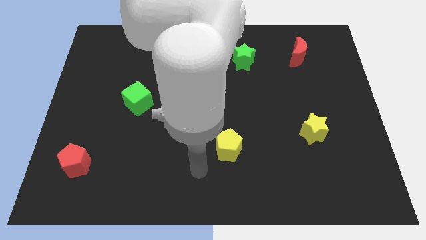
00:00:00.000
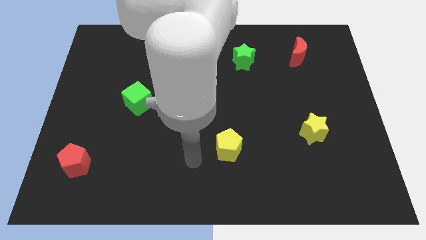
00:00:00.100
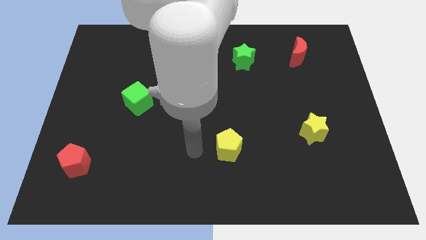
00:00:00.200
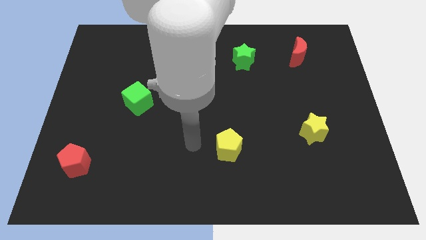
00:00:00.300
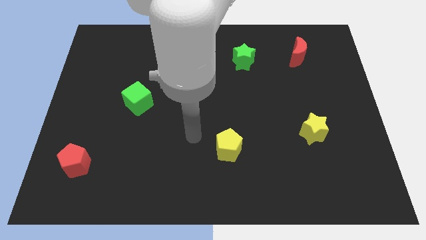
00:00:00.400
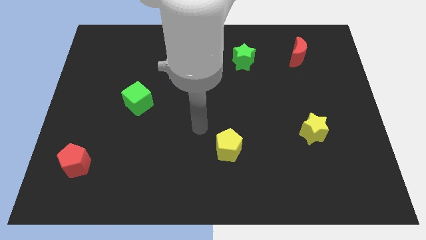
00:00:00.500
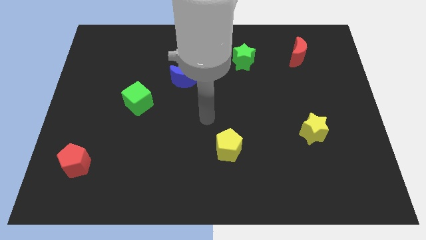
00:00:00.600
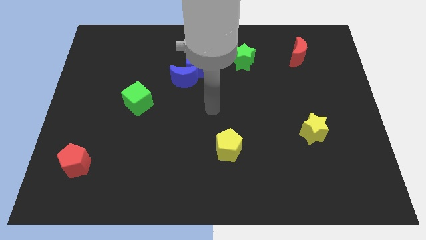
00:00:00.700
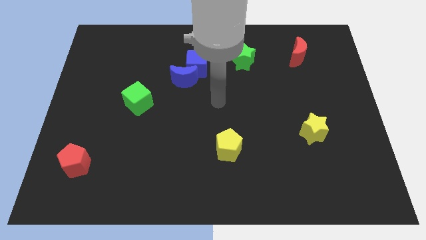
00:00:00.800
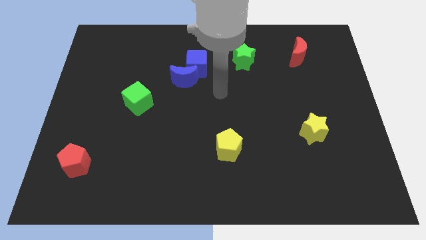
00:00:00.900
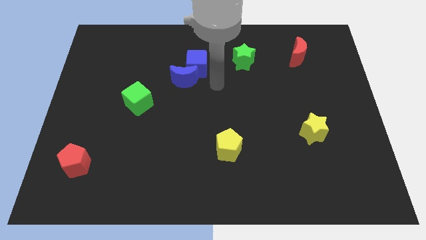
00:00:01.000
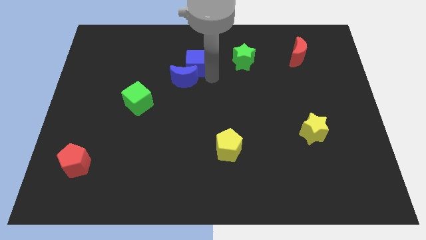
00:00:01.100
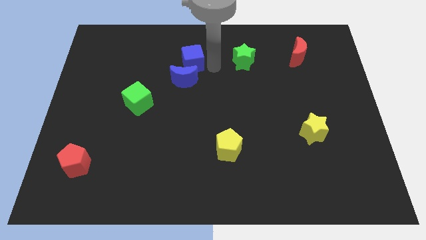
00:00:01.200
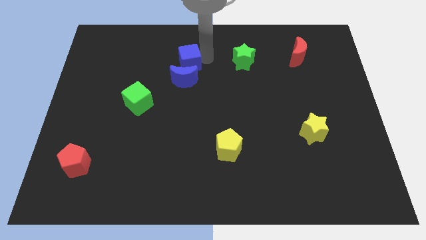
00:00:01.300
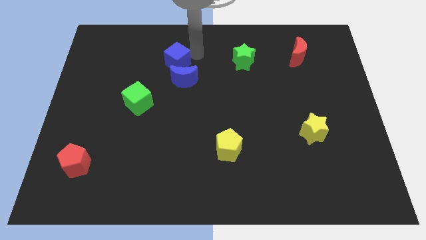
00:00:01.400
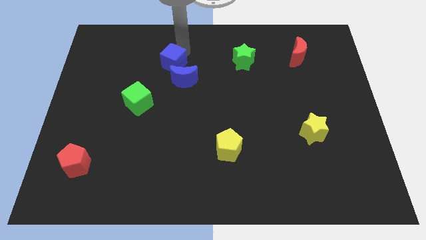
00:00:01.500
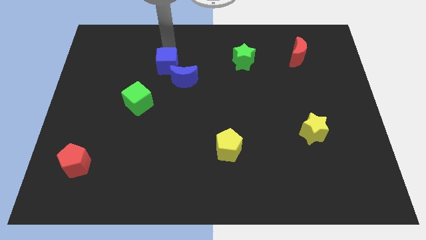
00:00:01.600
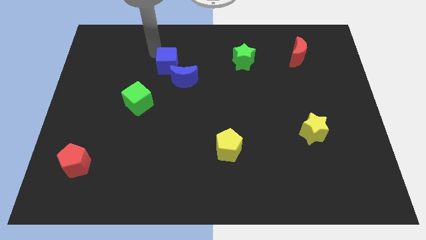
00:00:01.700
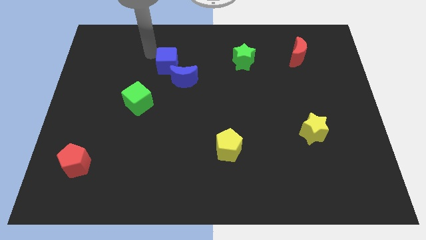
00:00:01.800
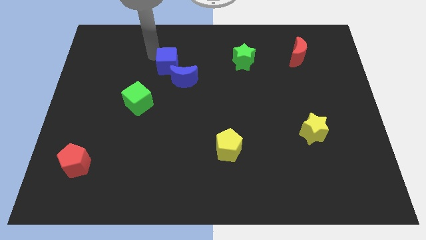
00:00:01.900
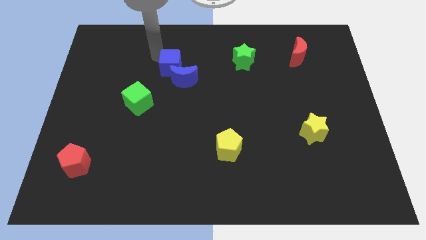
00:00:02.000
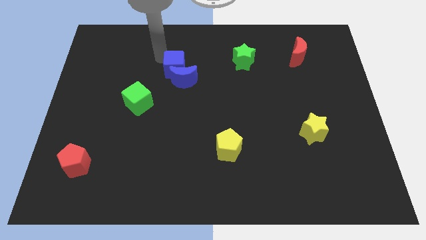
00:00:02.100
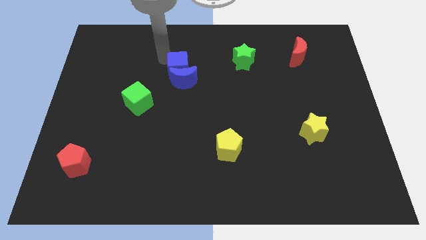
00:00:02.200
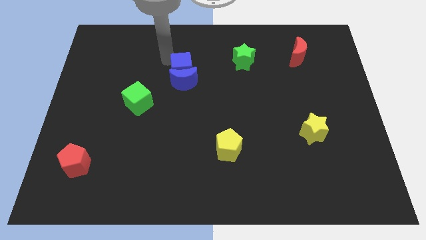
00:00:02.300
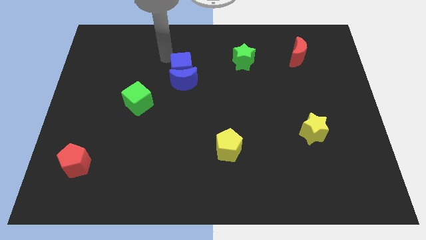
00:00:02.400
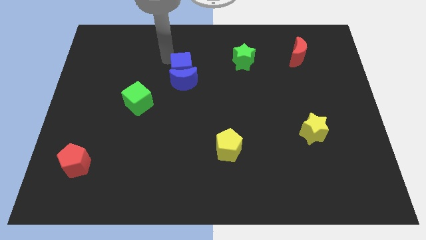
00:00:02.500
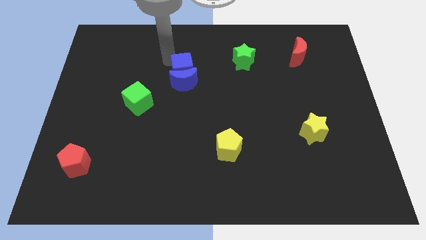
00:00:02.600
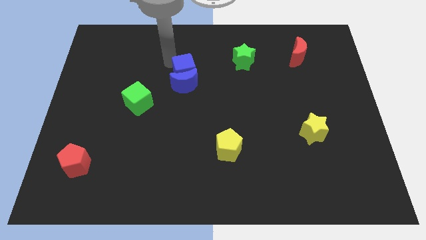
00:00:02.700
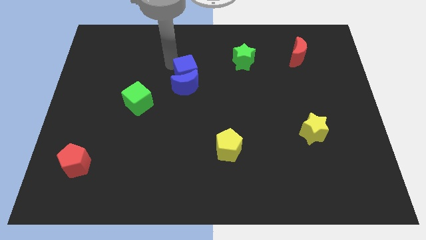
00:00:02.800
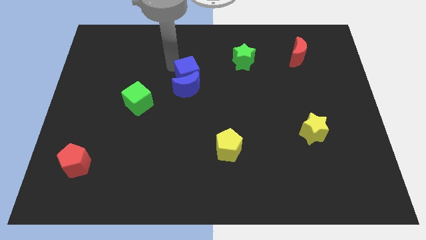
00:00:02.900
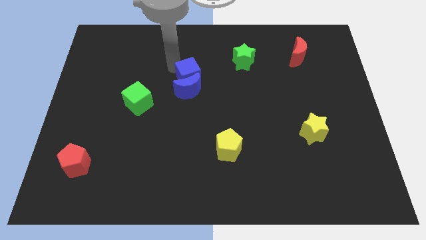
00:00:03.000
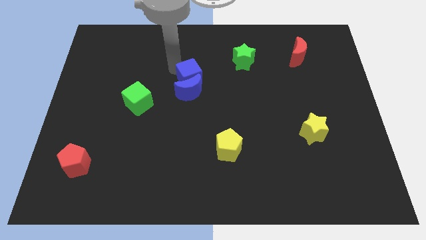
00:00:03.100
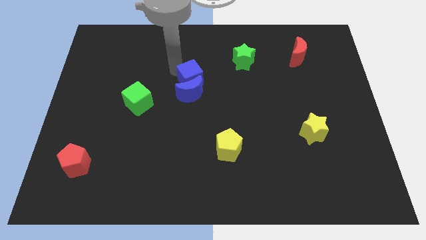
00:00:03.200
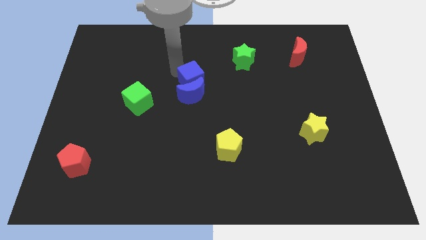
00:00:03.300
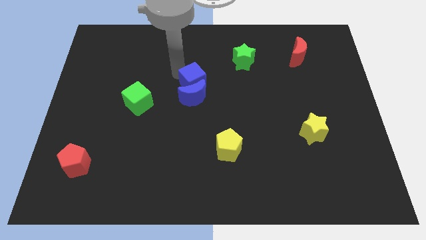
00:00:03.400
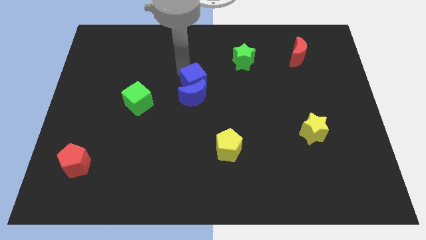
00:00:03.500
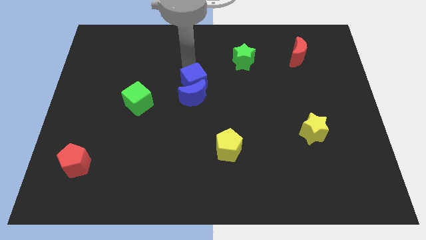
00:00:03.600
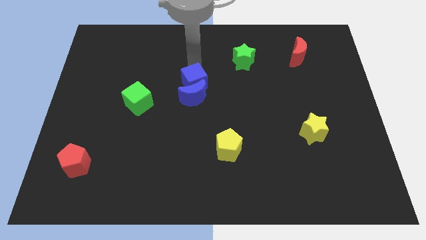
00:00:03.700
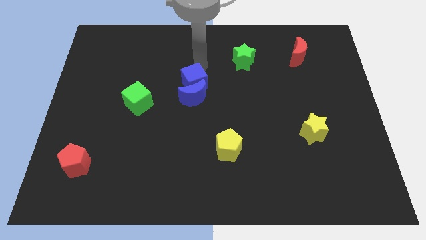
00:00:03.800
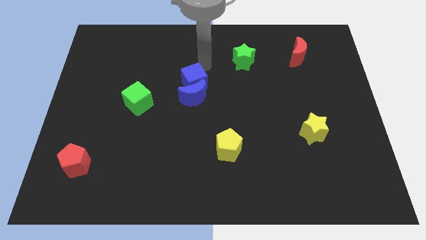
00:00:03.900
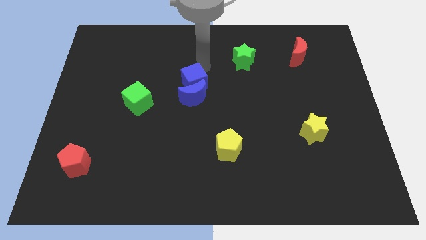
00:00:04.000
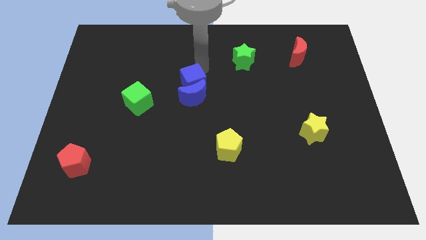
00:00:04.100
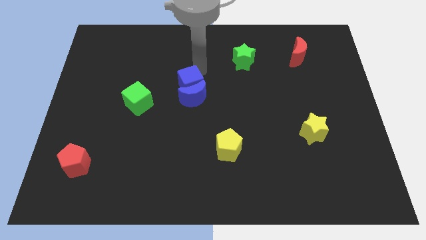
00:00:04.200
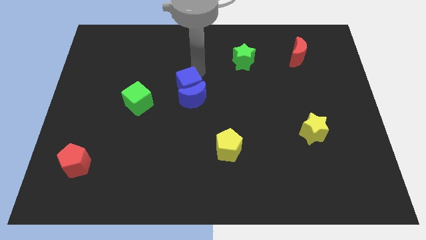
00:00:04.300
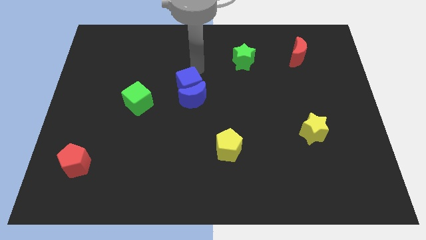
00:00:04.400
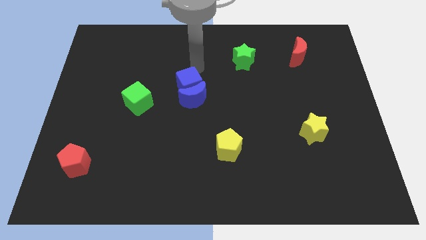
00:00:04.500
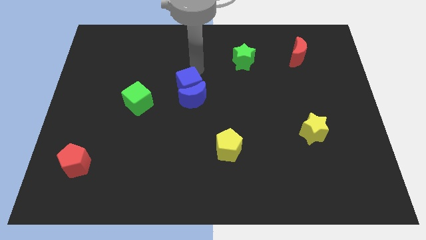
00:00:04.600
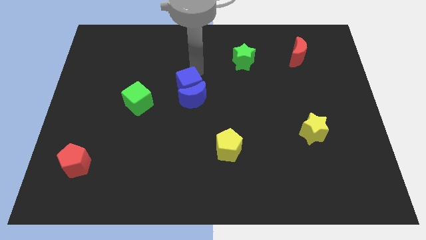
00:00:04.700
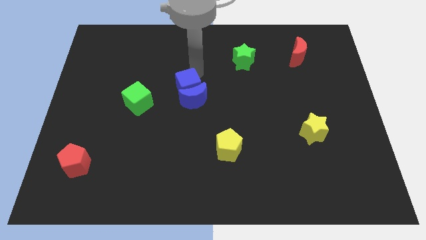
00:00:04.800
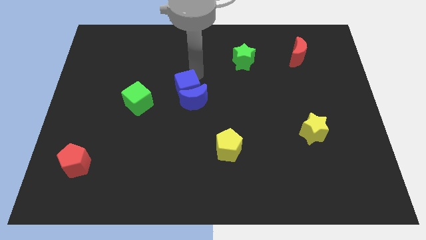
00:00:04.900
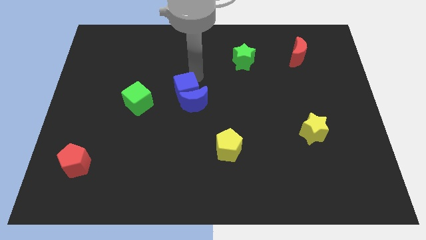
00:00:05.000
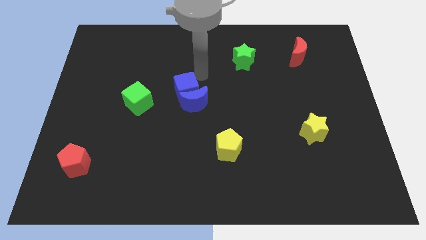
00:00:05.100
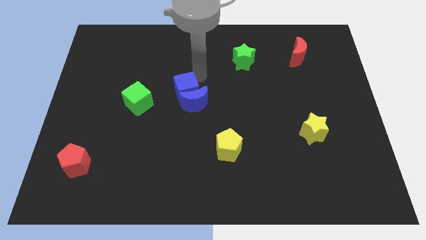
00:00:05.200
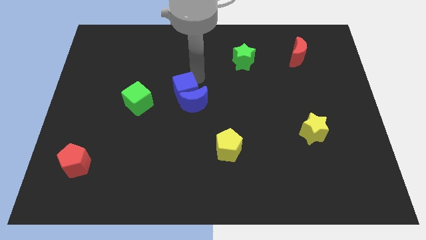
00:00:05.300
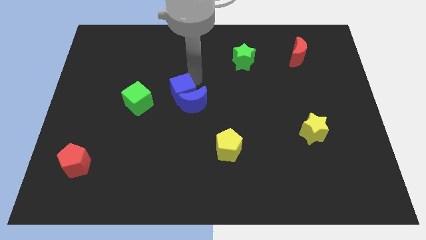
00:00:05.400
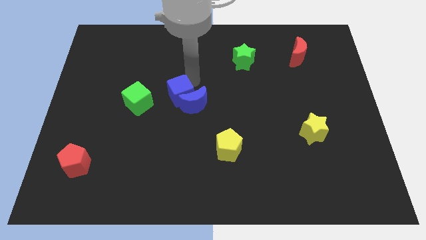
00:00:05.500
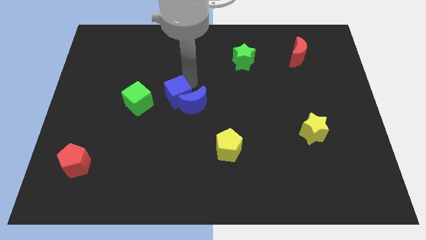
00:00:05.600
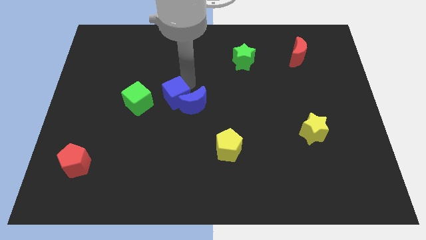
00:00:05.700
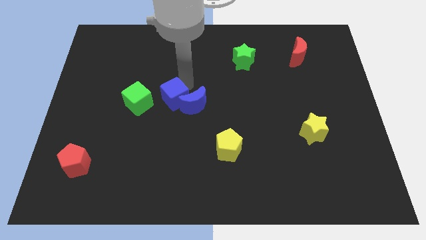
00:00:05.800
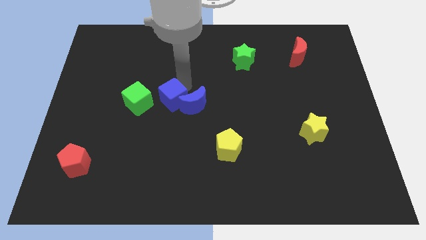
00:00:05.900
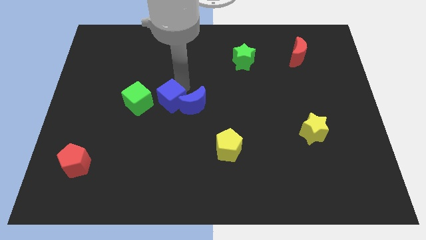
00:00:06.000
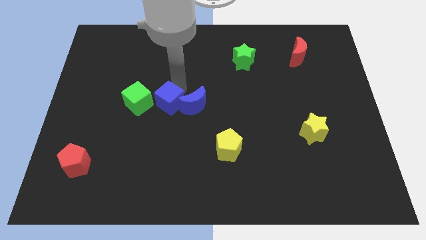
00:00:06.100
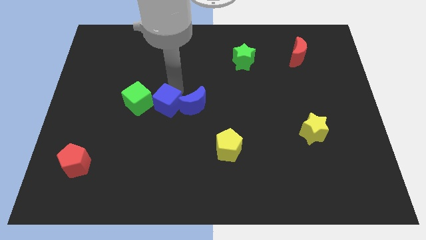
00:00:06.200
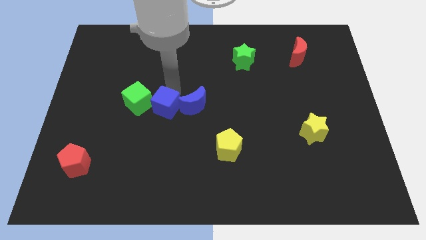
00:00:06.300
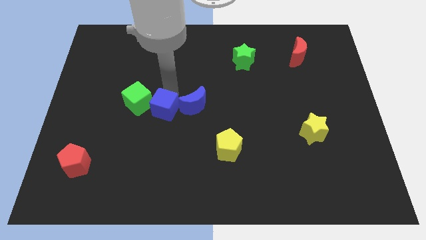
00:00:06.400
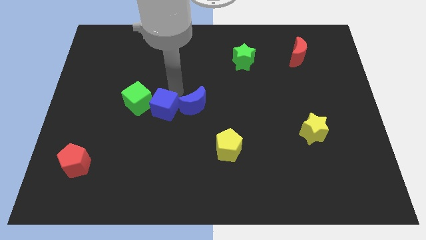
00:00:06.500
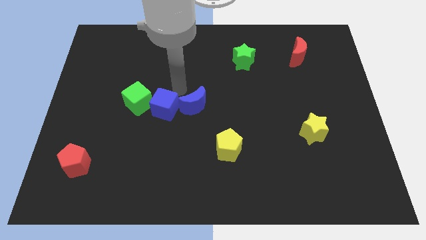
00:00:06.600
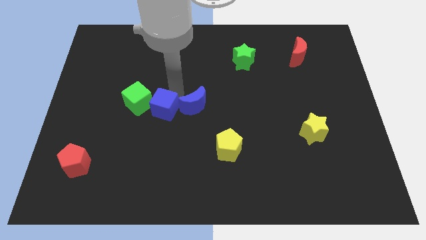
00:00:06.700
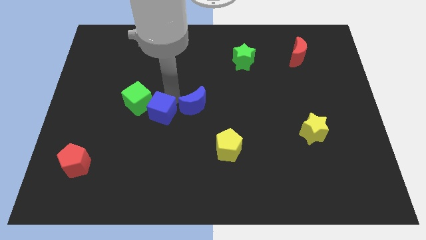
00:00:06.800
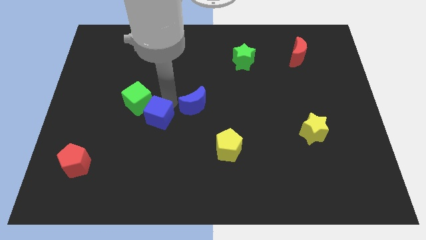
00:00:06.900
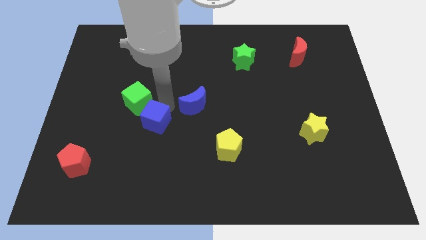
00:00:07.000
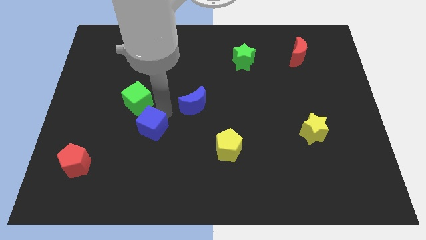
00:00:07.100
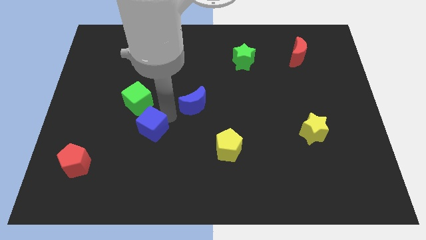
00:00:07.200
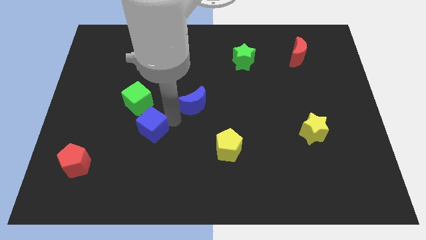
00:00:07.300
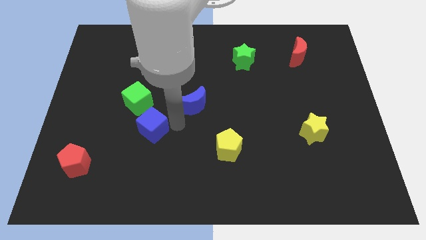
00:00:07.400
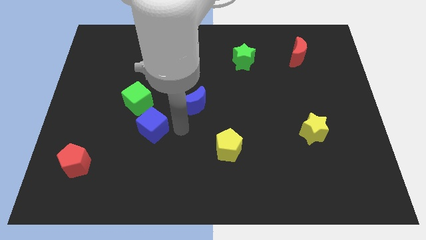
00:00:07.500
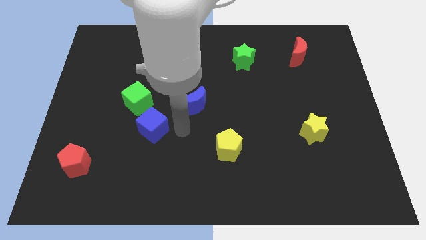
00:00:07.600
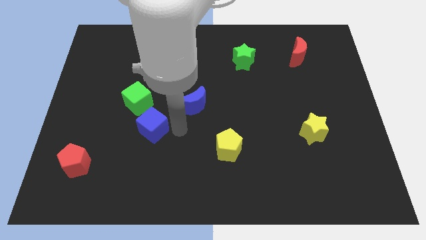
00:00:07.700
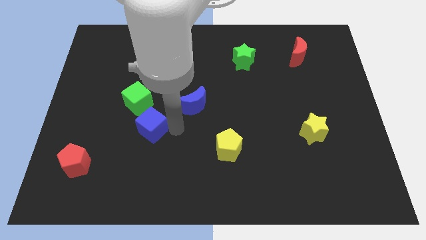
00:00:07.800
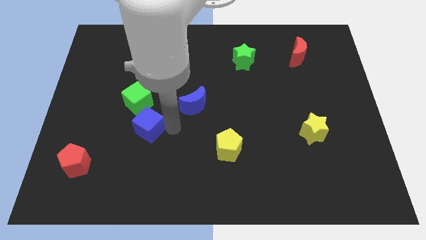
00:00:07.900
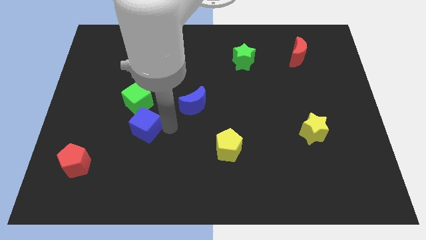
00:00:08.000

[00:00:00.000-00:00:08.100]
push the blue cube downwards and left diagonally

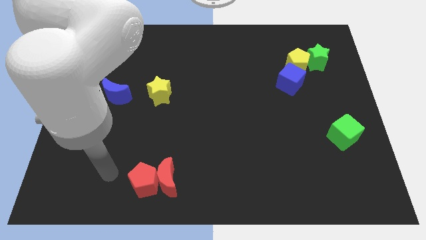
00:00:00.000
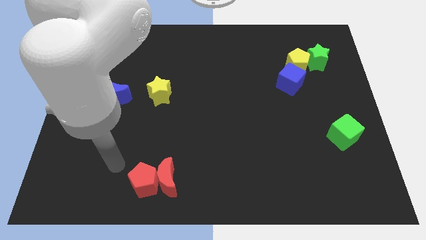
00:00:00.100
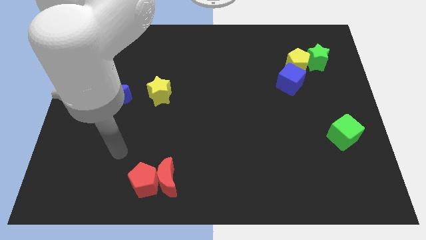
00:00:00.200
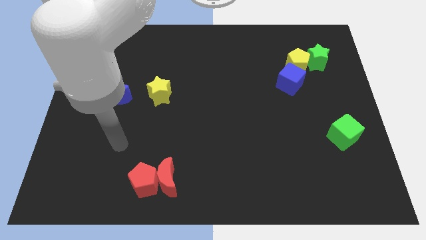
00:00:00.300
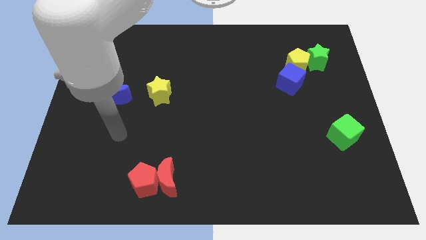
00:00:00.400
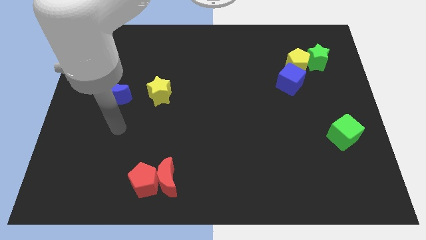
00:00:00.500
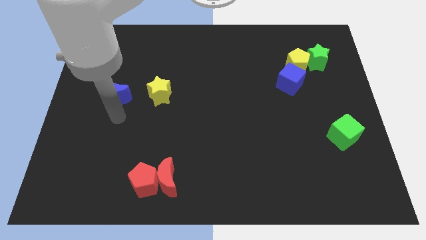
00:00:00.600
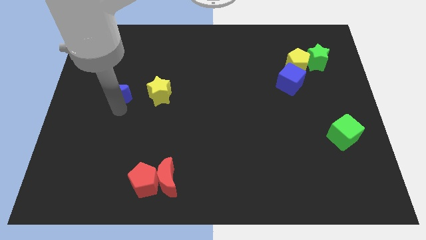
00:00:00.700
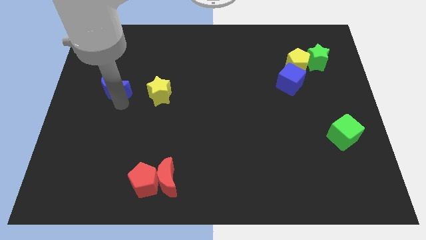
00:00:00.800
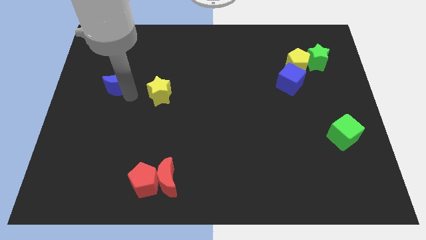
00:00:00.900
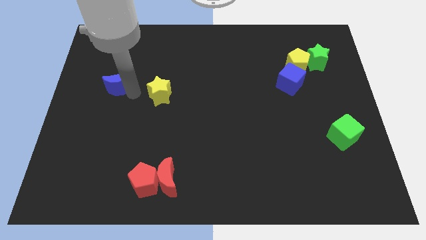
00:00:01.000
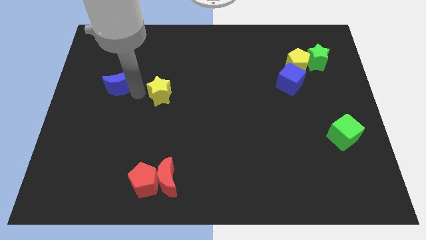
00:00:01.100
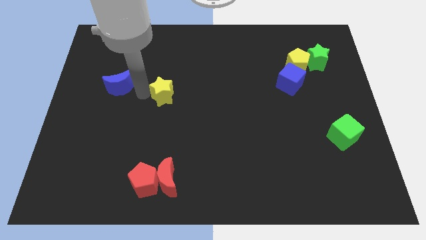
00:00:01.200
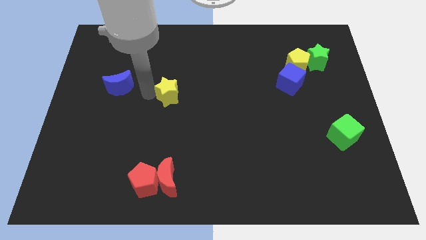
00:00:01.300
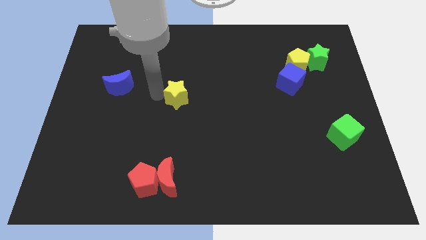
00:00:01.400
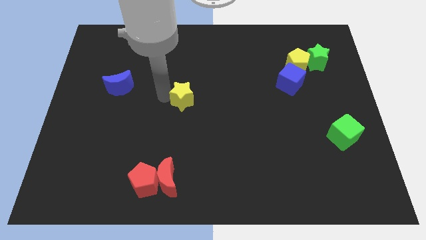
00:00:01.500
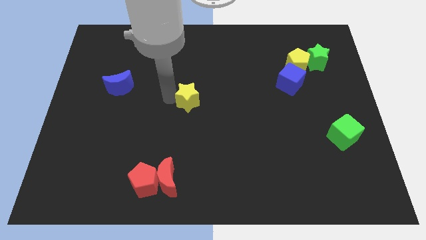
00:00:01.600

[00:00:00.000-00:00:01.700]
slightly slide the yellow star right
